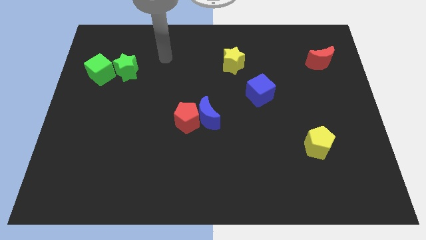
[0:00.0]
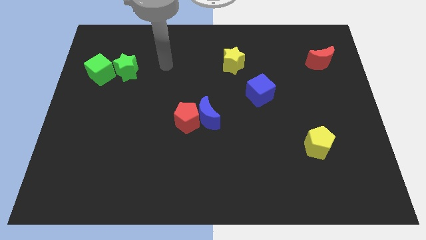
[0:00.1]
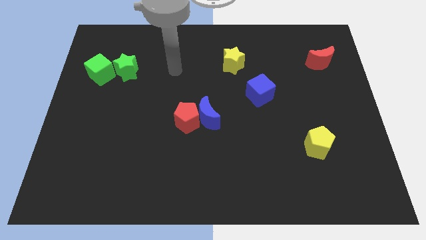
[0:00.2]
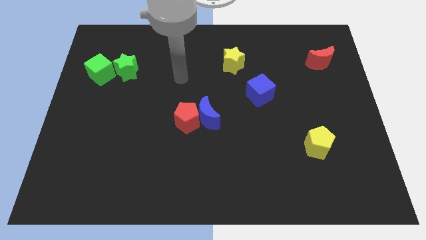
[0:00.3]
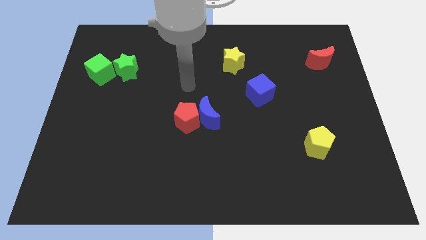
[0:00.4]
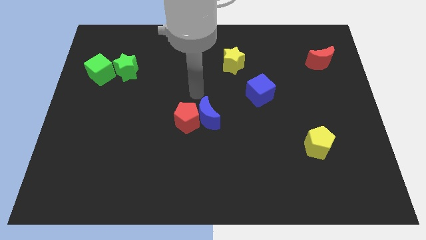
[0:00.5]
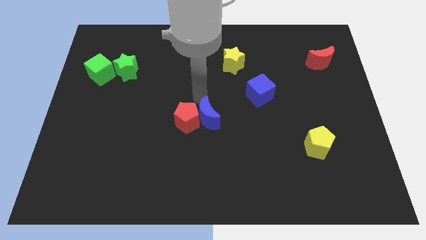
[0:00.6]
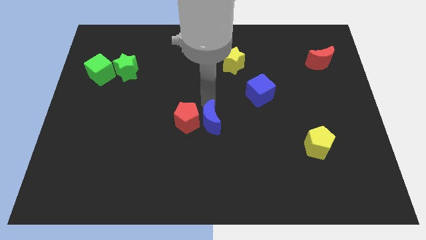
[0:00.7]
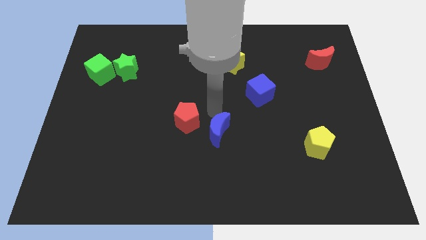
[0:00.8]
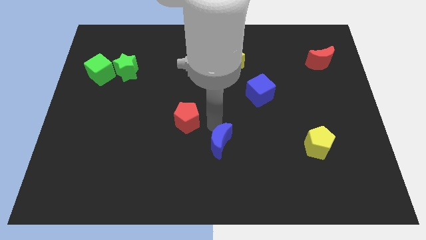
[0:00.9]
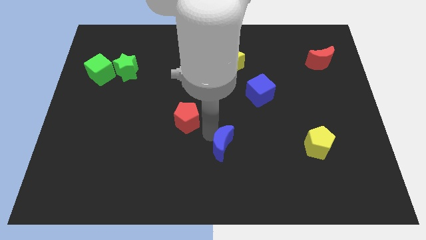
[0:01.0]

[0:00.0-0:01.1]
separate the red pentagon from the blue moon

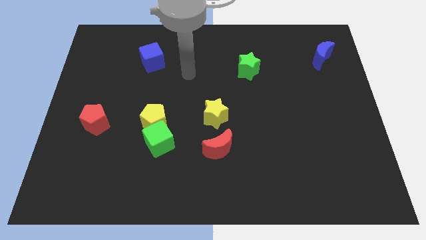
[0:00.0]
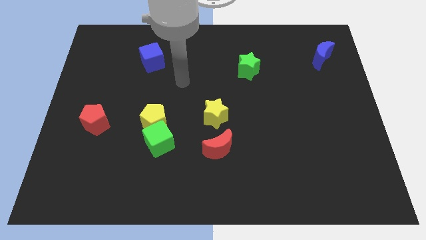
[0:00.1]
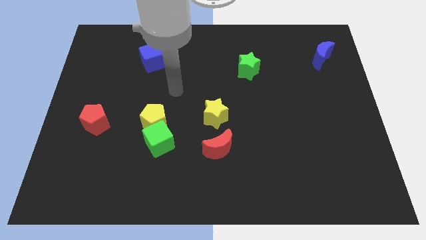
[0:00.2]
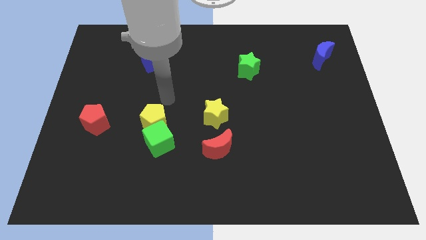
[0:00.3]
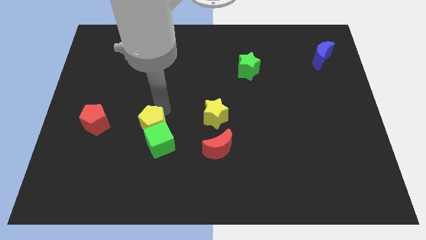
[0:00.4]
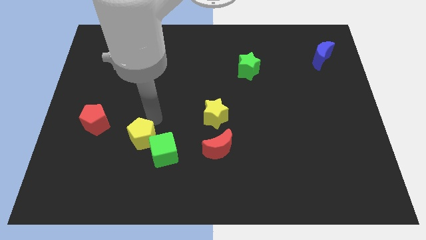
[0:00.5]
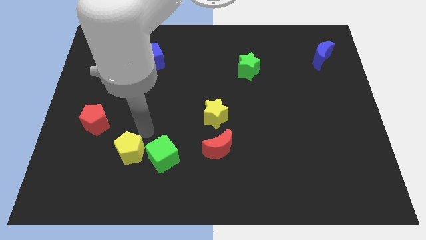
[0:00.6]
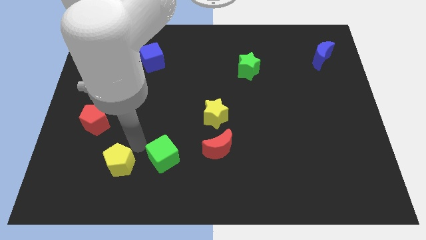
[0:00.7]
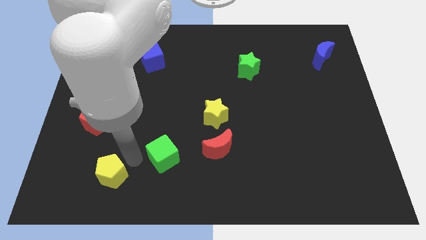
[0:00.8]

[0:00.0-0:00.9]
pull the green cube apart from the yellow pentagon

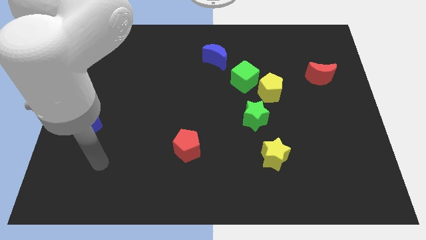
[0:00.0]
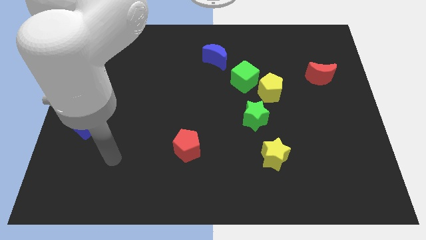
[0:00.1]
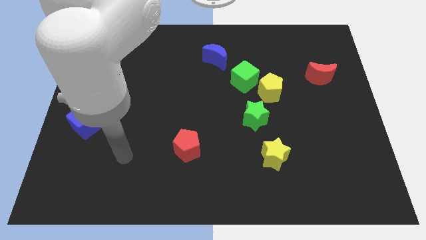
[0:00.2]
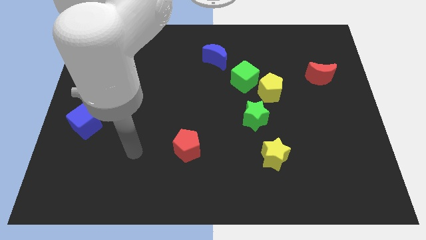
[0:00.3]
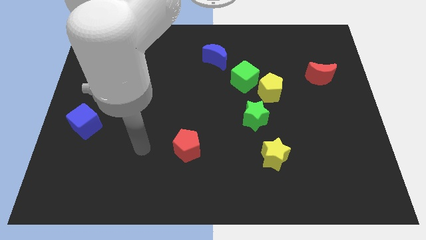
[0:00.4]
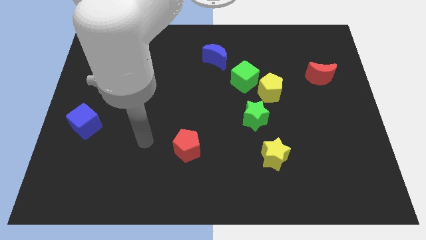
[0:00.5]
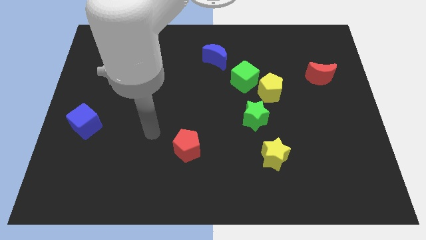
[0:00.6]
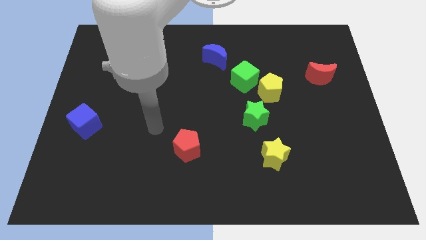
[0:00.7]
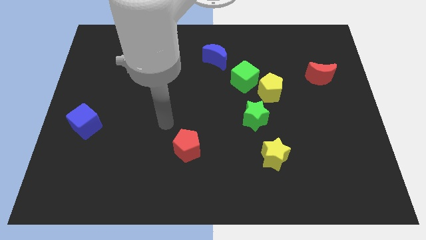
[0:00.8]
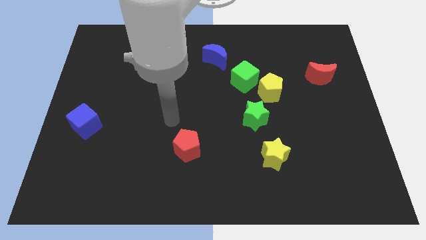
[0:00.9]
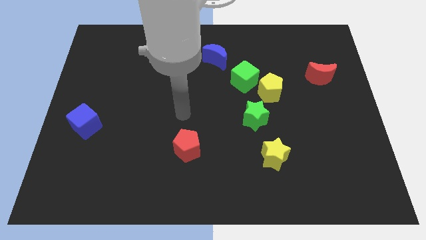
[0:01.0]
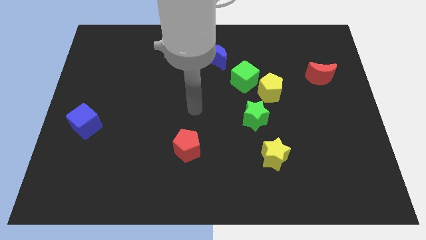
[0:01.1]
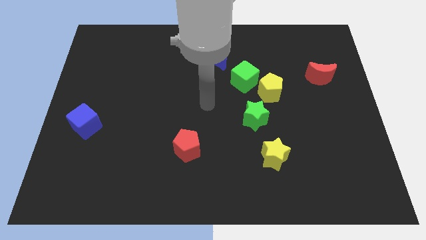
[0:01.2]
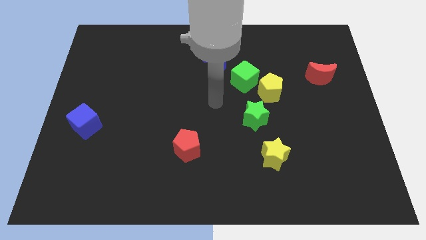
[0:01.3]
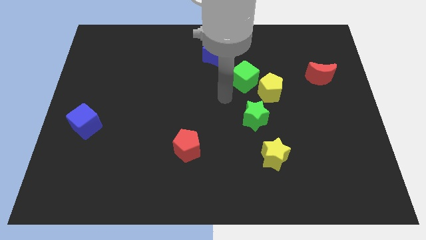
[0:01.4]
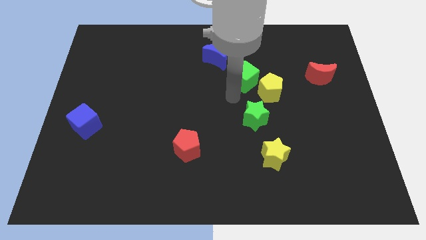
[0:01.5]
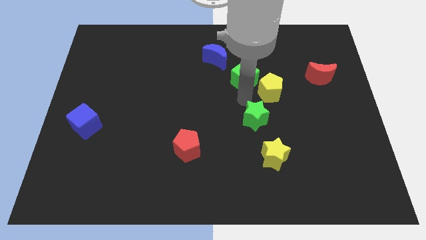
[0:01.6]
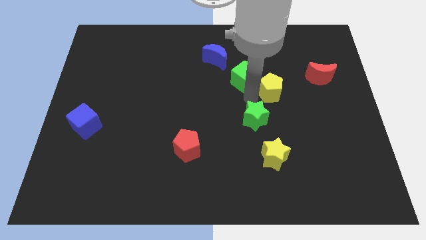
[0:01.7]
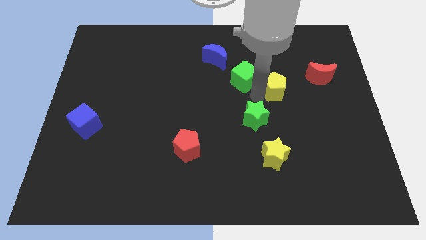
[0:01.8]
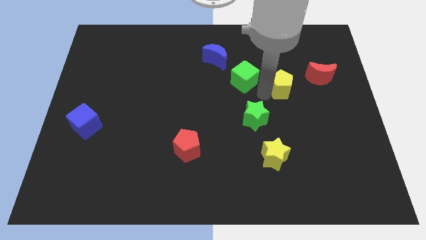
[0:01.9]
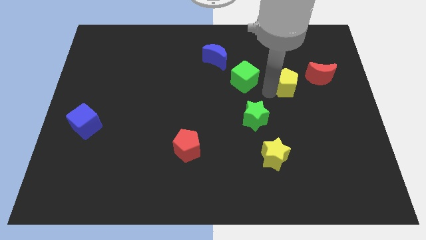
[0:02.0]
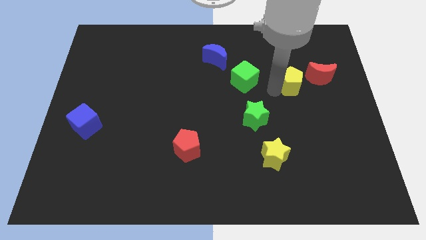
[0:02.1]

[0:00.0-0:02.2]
separate the yellow pentagon from the green cube and green star

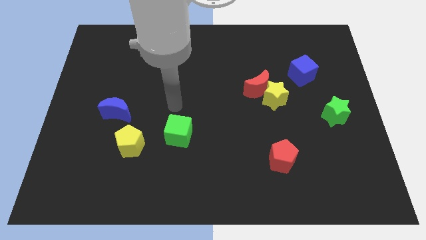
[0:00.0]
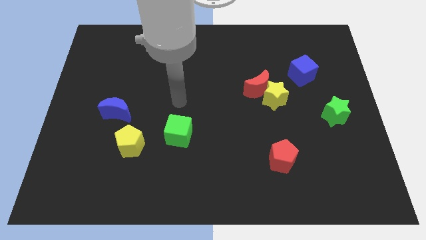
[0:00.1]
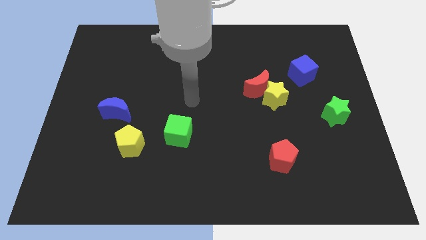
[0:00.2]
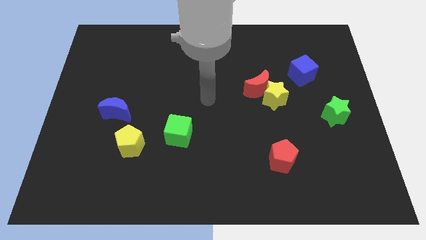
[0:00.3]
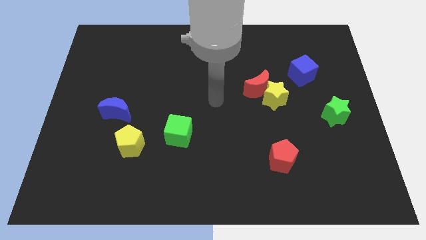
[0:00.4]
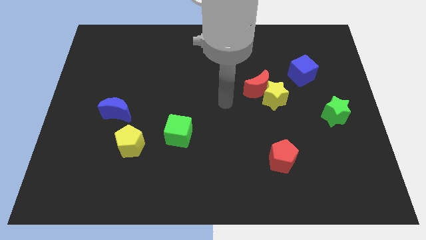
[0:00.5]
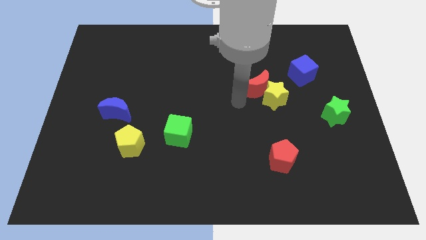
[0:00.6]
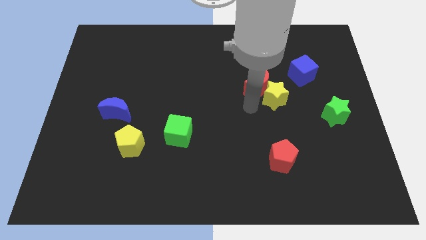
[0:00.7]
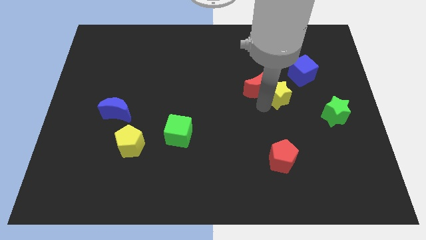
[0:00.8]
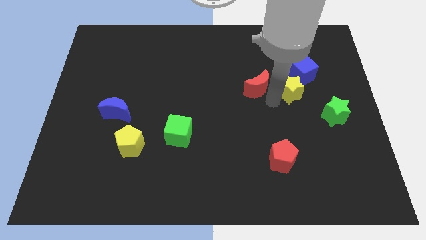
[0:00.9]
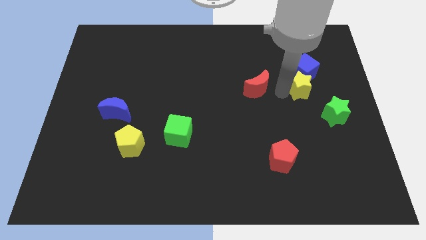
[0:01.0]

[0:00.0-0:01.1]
separate the red moon from the yellow star

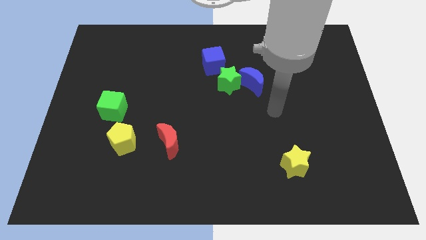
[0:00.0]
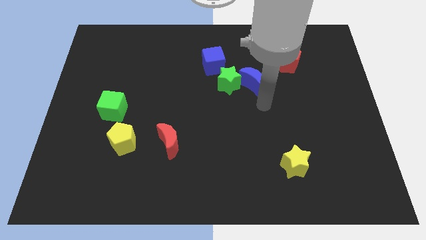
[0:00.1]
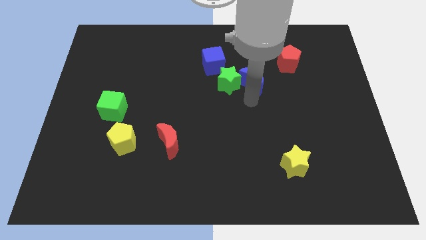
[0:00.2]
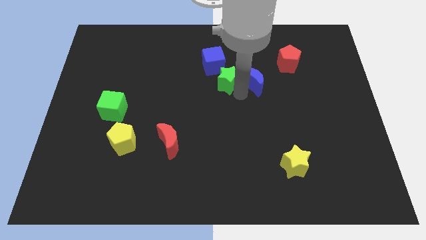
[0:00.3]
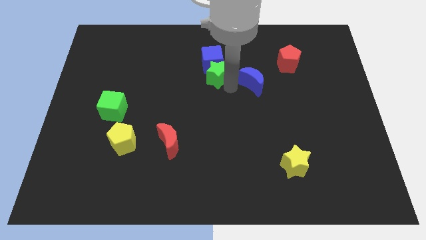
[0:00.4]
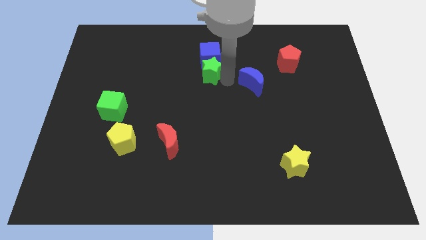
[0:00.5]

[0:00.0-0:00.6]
separate the blue moon from the green star

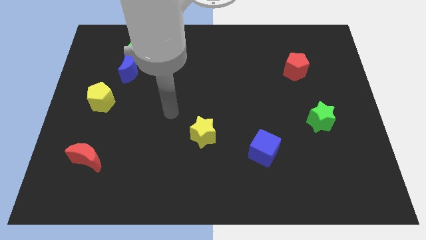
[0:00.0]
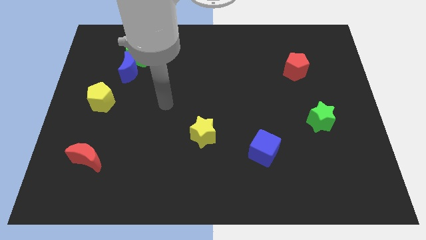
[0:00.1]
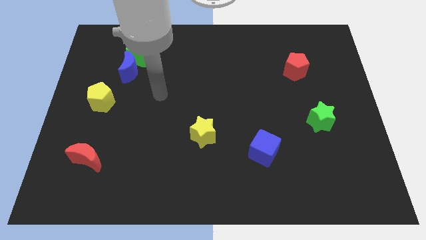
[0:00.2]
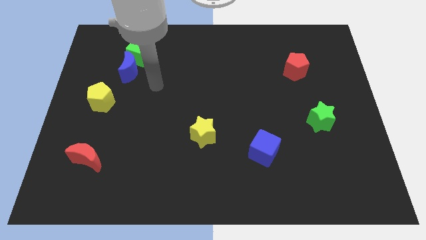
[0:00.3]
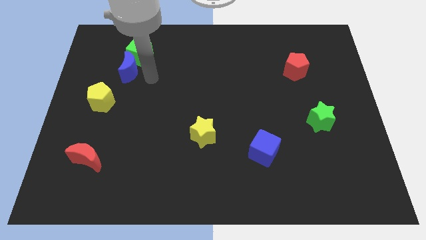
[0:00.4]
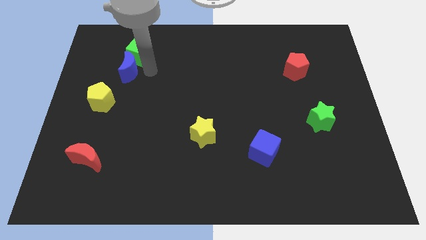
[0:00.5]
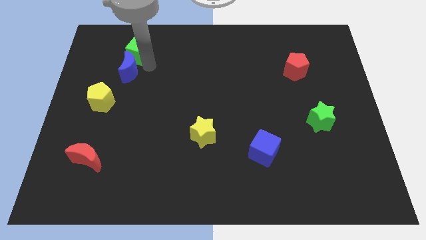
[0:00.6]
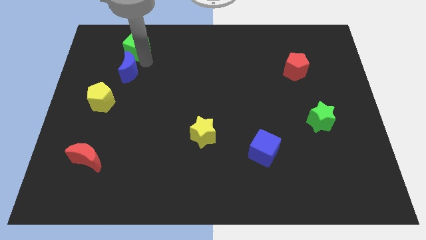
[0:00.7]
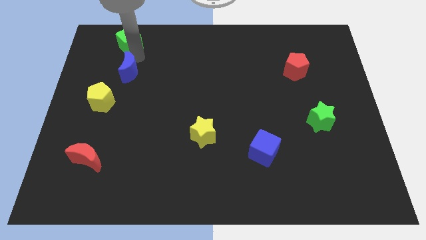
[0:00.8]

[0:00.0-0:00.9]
move the blue moon away from the green cube

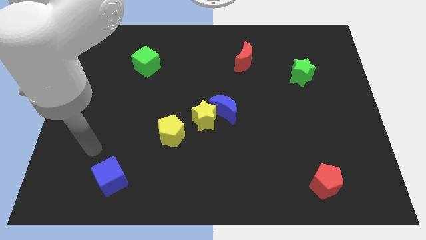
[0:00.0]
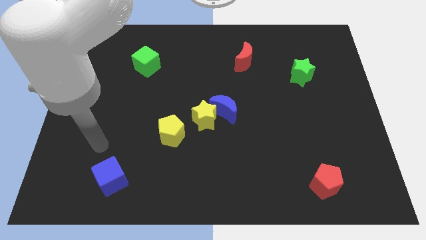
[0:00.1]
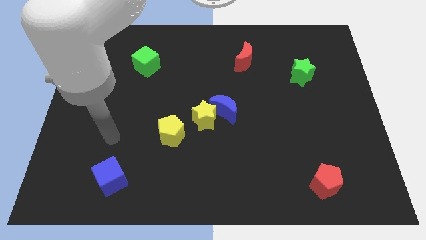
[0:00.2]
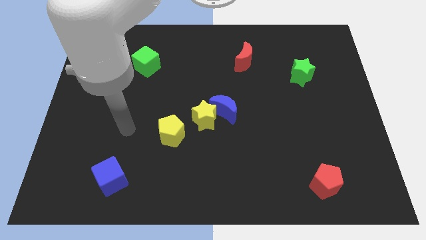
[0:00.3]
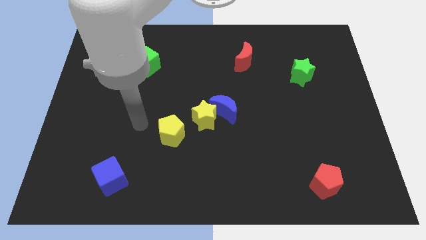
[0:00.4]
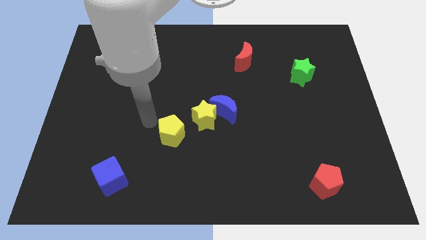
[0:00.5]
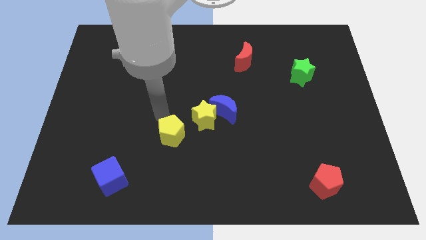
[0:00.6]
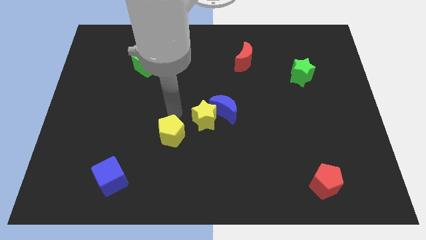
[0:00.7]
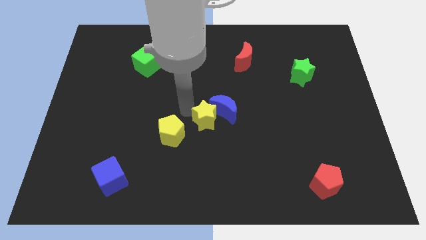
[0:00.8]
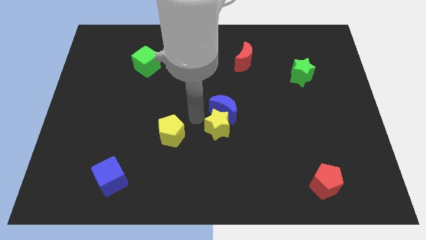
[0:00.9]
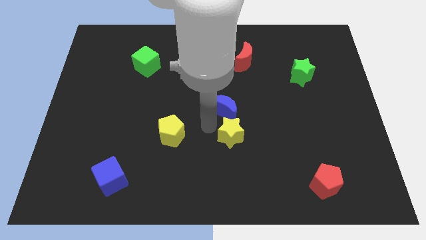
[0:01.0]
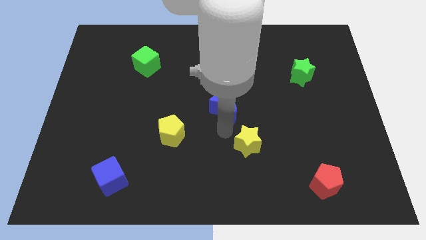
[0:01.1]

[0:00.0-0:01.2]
separate the blue moon from the yellow star

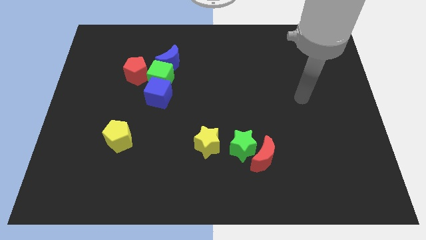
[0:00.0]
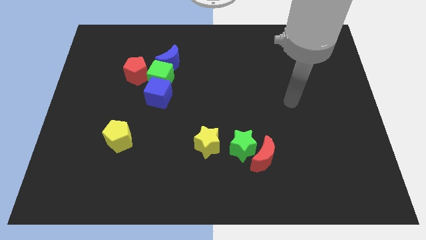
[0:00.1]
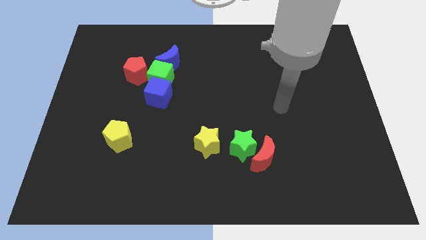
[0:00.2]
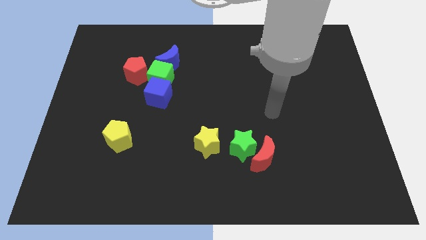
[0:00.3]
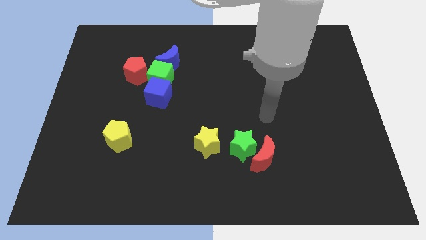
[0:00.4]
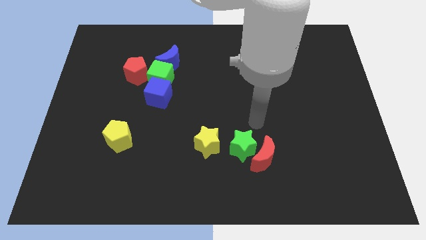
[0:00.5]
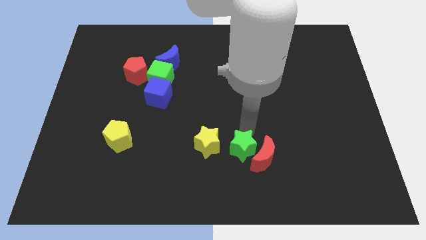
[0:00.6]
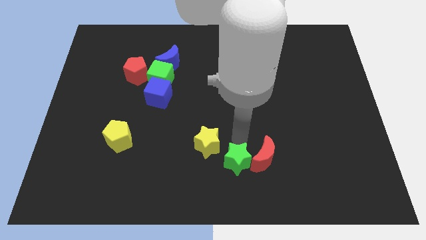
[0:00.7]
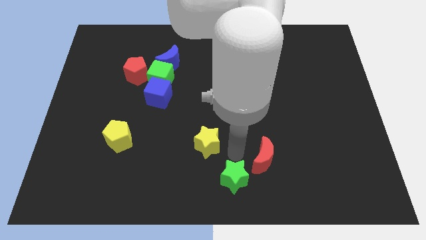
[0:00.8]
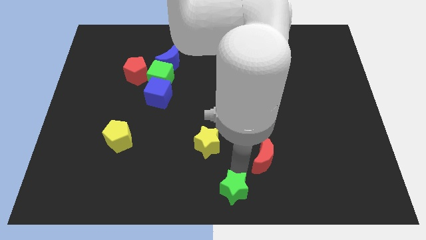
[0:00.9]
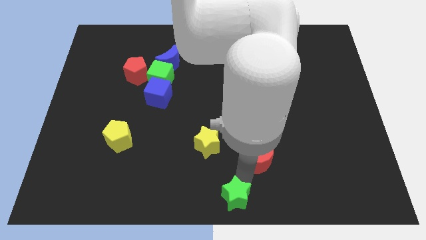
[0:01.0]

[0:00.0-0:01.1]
pull the red moon apart from the green star

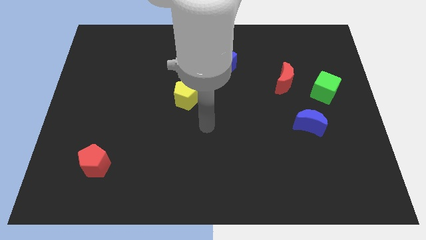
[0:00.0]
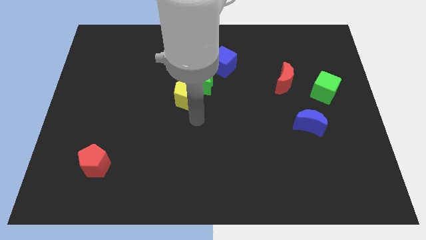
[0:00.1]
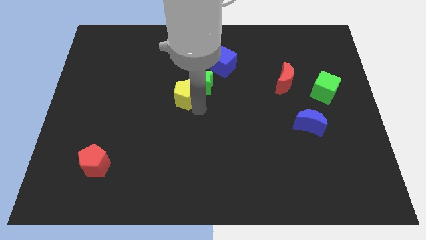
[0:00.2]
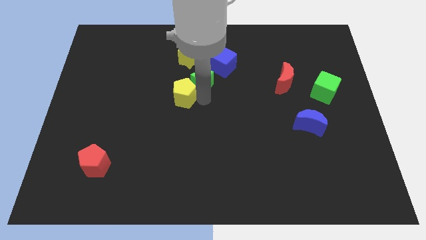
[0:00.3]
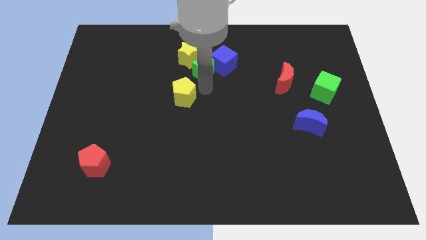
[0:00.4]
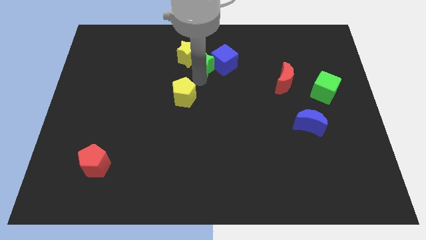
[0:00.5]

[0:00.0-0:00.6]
pull the yellow pentagon apart from the green star
